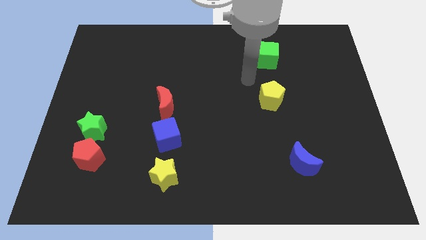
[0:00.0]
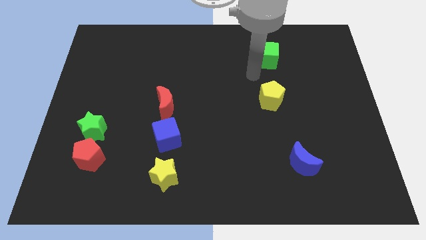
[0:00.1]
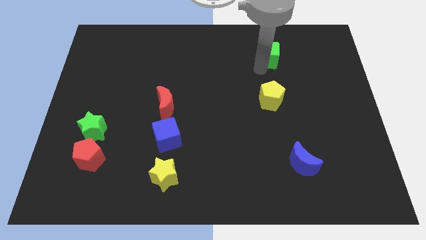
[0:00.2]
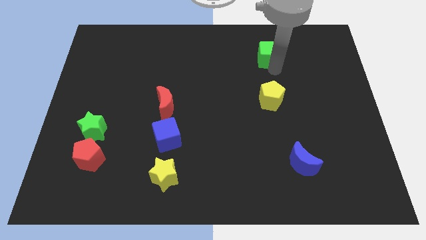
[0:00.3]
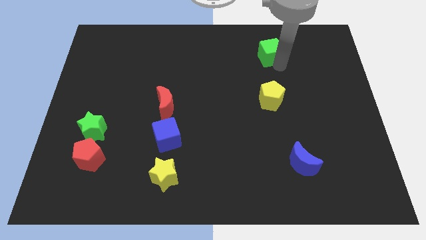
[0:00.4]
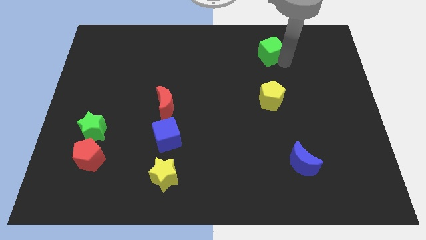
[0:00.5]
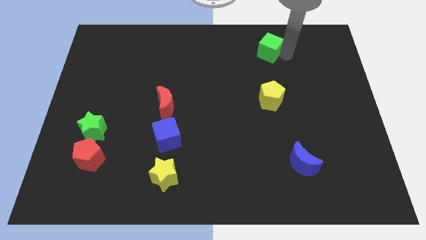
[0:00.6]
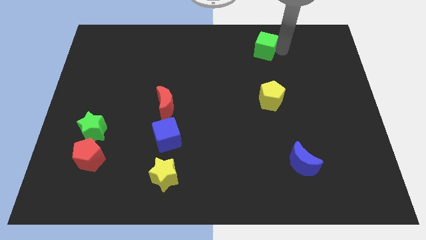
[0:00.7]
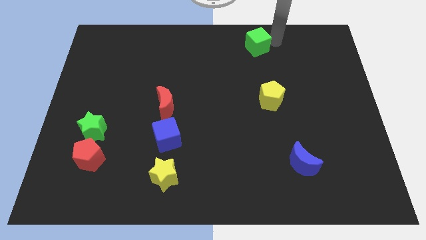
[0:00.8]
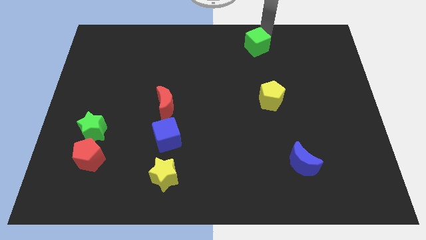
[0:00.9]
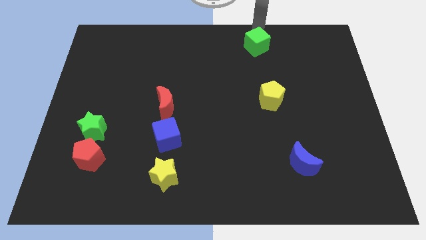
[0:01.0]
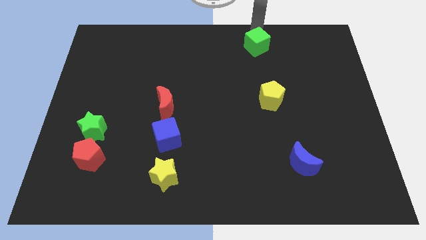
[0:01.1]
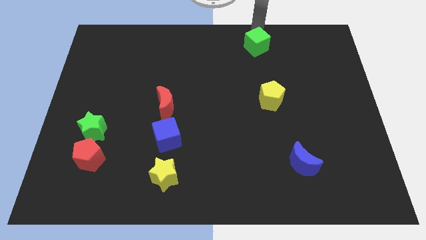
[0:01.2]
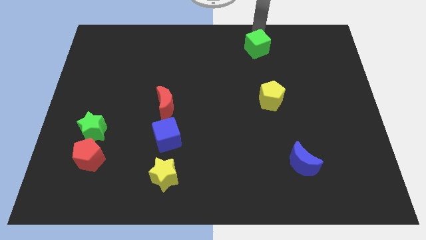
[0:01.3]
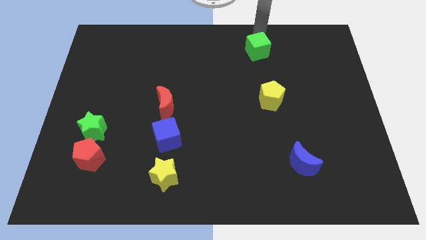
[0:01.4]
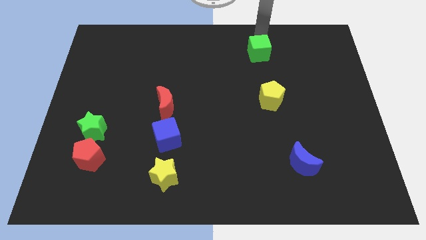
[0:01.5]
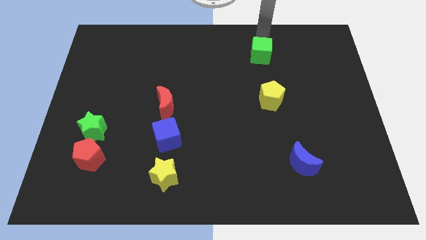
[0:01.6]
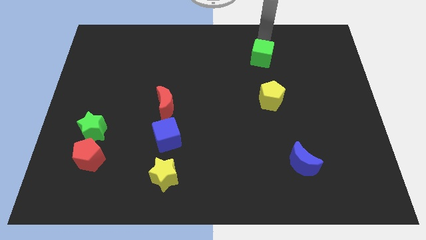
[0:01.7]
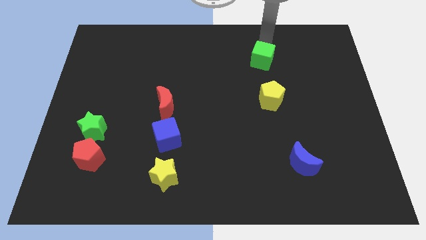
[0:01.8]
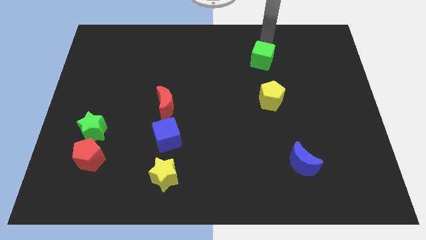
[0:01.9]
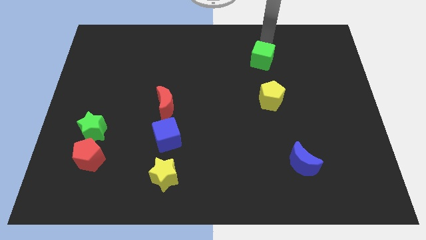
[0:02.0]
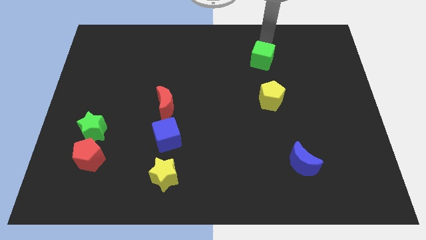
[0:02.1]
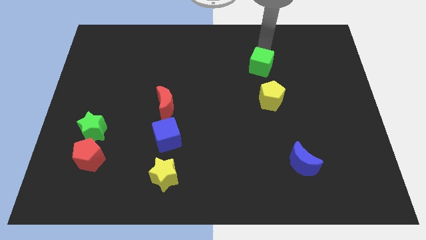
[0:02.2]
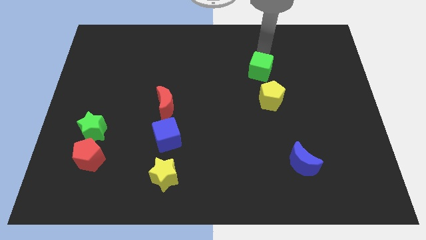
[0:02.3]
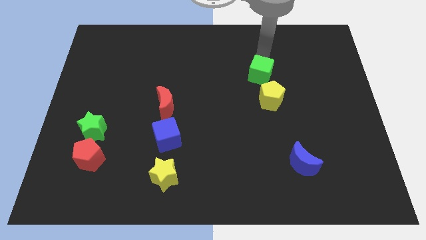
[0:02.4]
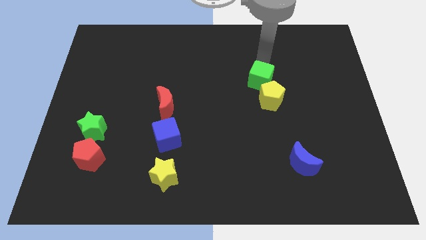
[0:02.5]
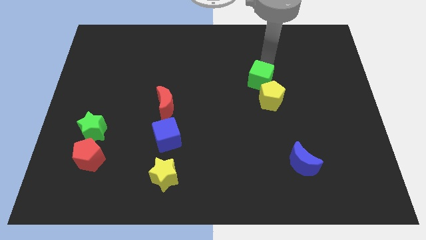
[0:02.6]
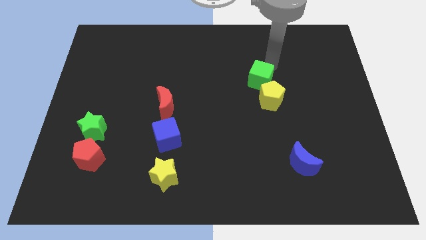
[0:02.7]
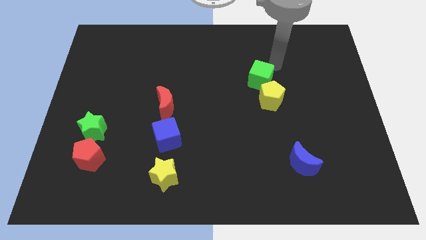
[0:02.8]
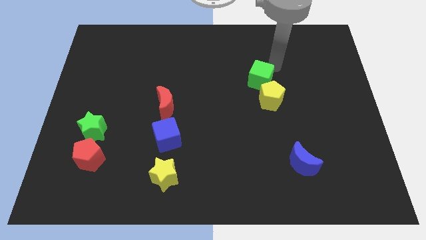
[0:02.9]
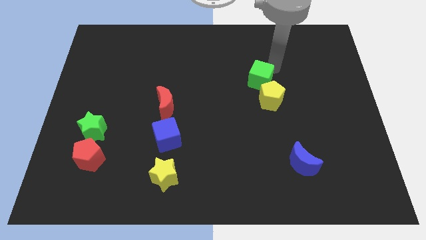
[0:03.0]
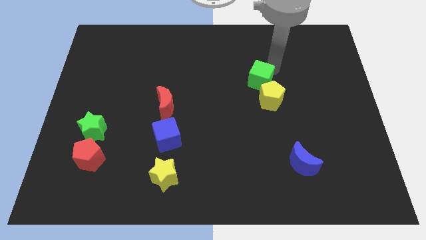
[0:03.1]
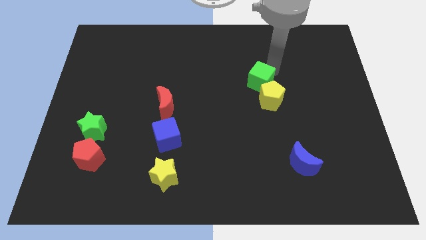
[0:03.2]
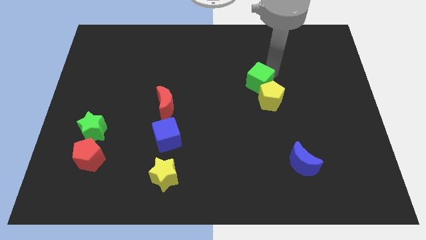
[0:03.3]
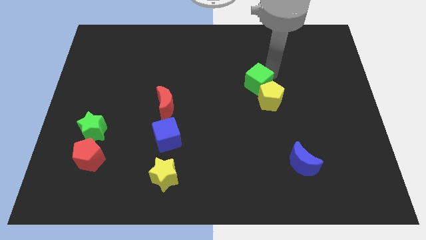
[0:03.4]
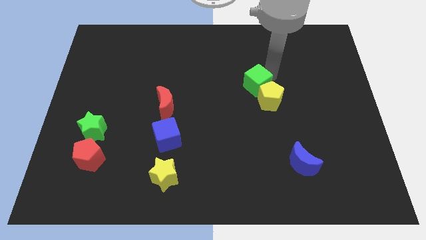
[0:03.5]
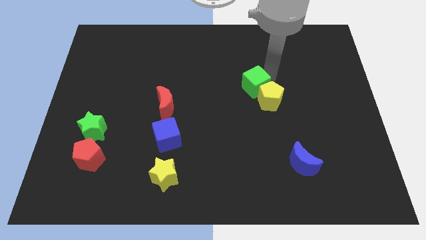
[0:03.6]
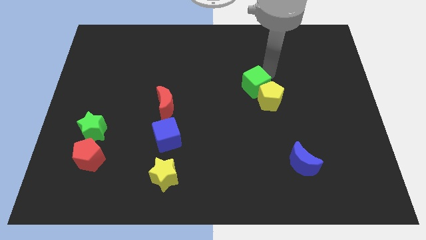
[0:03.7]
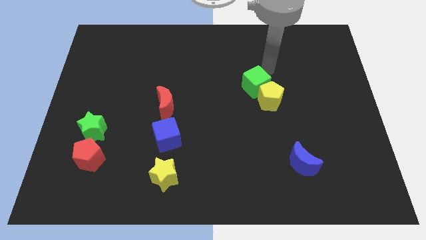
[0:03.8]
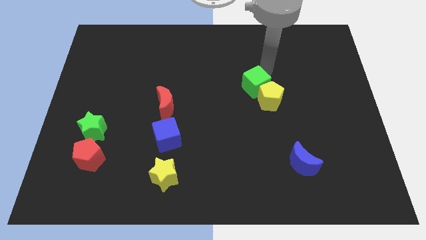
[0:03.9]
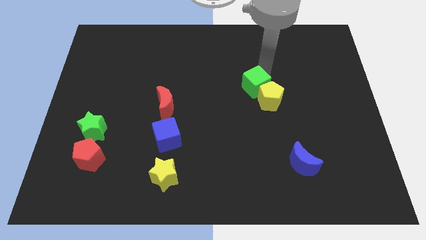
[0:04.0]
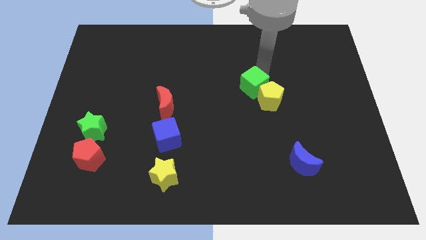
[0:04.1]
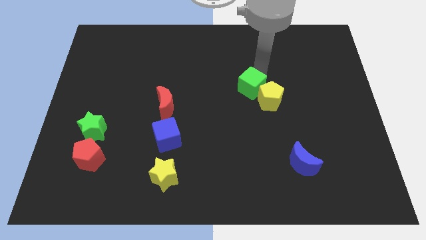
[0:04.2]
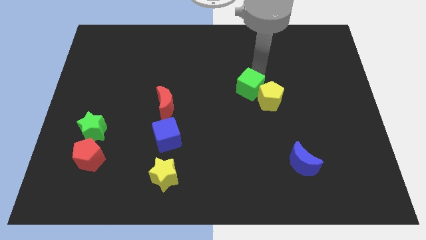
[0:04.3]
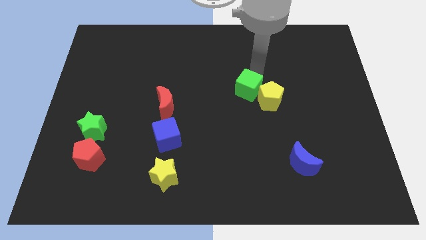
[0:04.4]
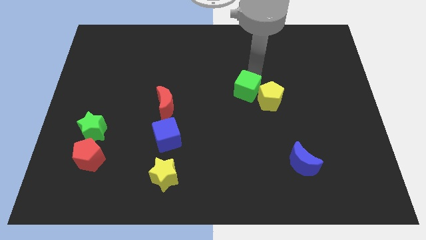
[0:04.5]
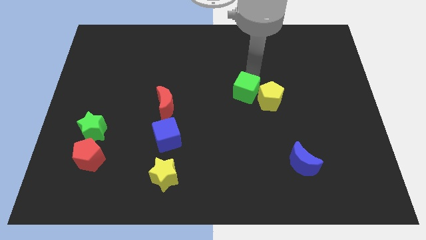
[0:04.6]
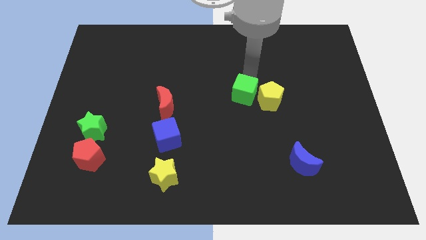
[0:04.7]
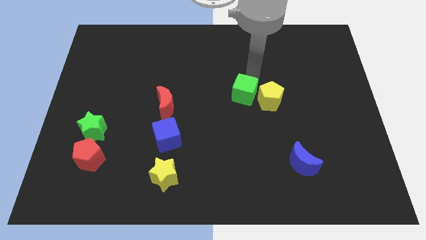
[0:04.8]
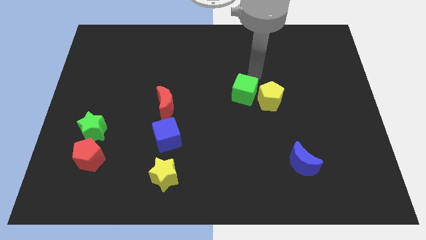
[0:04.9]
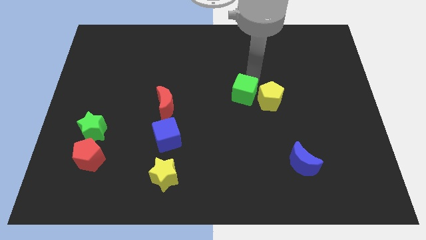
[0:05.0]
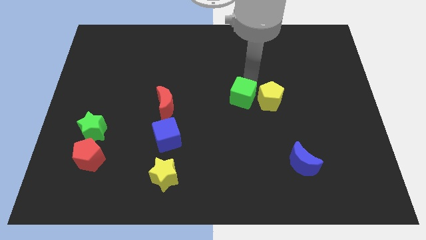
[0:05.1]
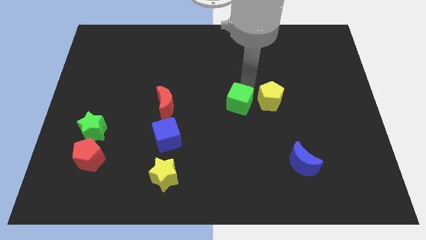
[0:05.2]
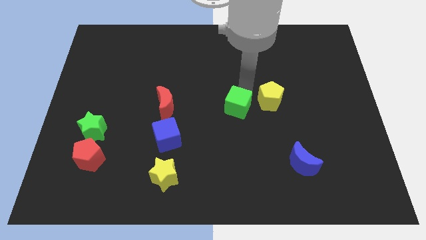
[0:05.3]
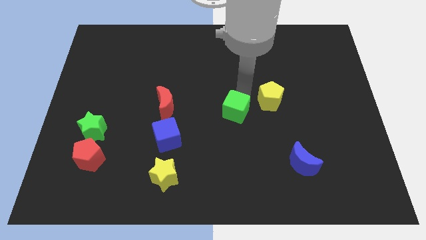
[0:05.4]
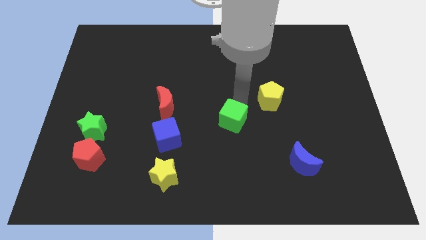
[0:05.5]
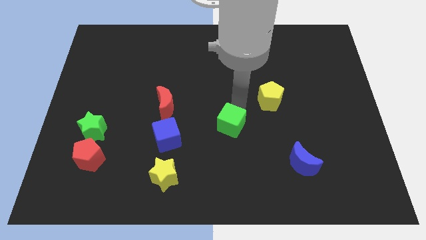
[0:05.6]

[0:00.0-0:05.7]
put the green cube to the right side of the blue cube
